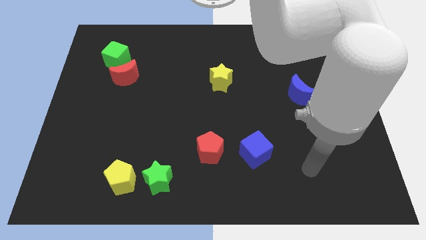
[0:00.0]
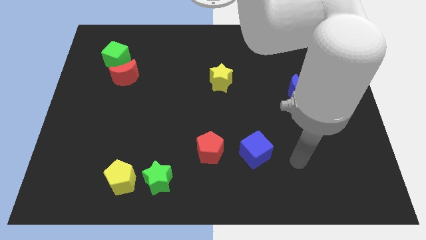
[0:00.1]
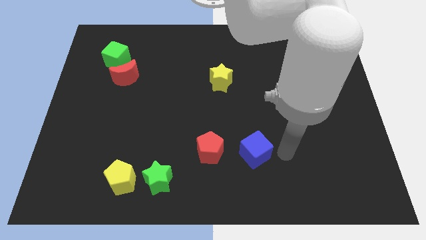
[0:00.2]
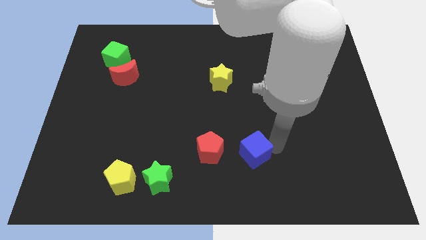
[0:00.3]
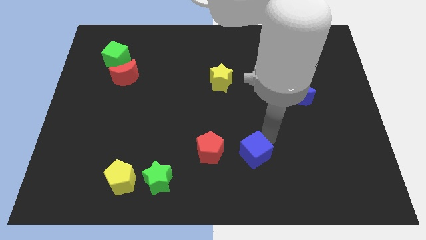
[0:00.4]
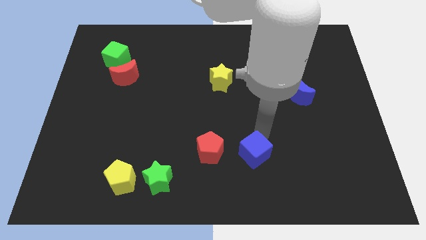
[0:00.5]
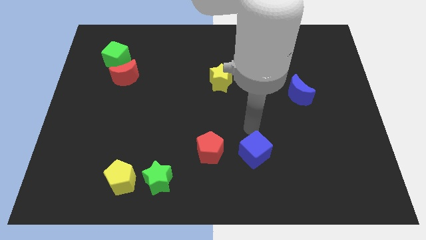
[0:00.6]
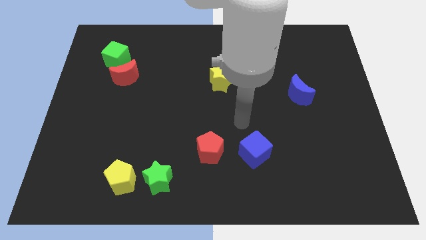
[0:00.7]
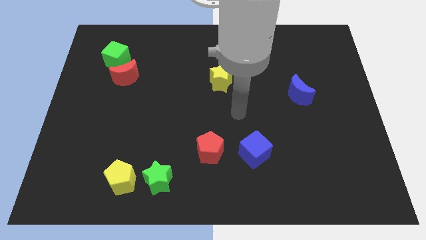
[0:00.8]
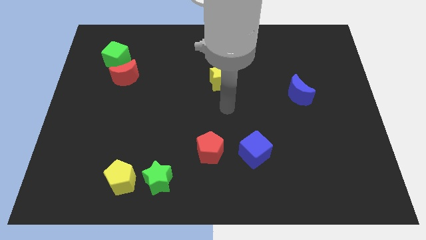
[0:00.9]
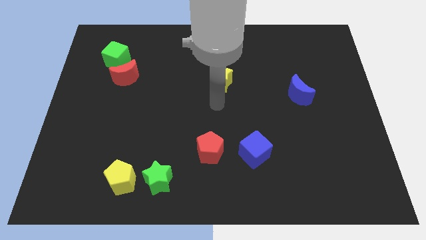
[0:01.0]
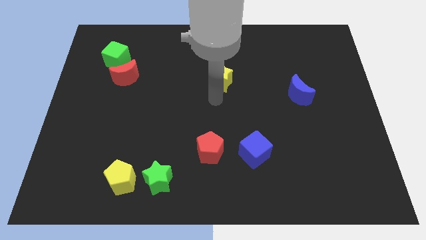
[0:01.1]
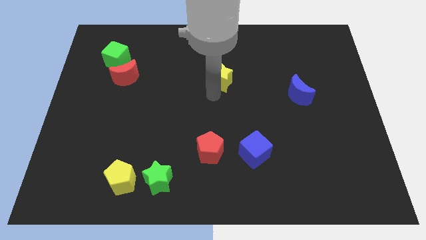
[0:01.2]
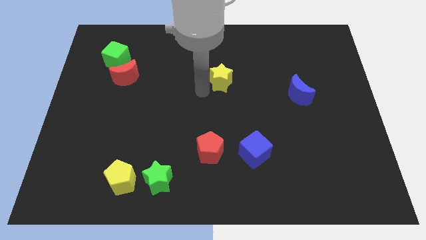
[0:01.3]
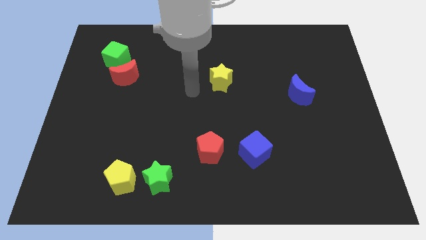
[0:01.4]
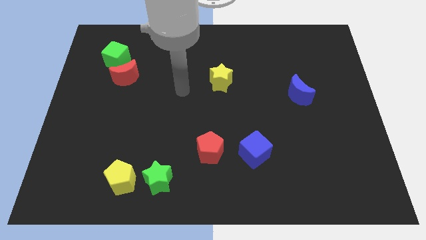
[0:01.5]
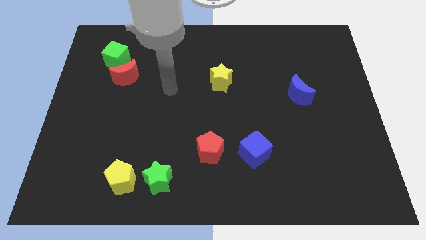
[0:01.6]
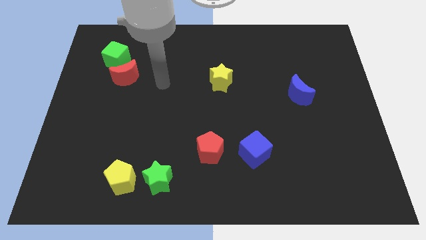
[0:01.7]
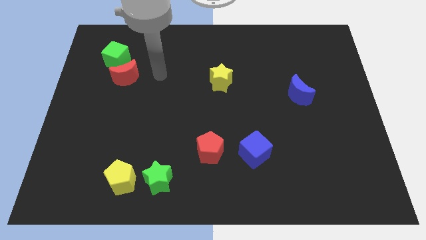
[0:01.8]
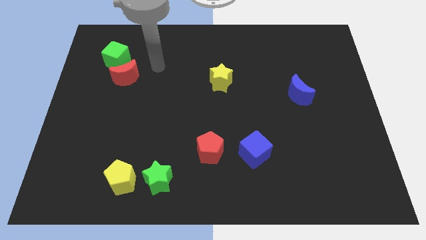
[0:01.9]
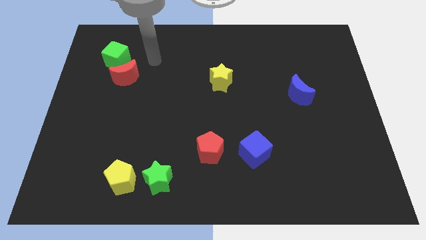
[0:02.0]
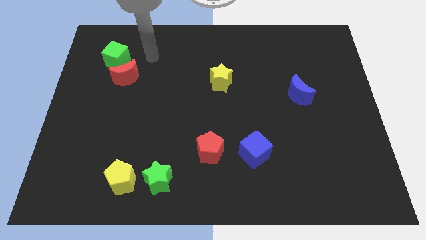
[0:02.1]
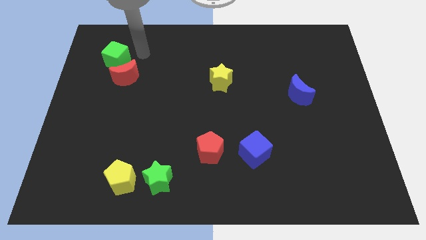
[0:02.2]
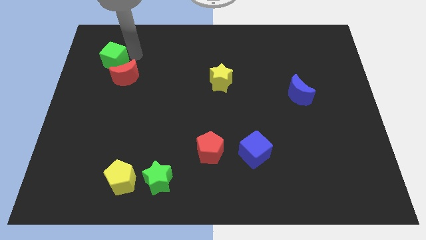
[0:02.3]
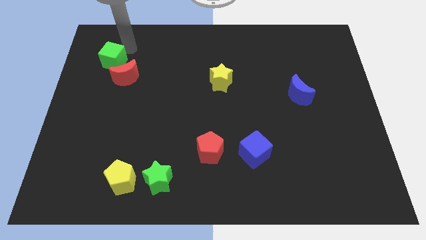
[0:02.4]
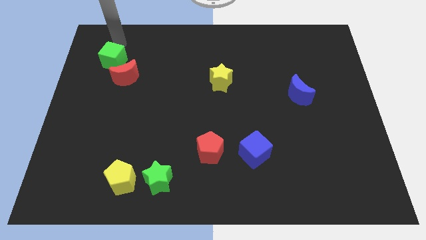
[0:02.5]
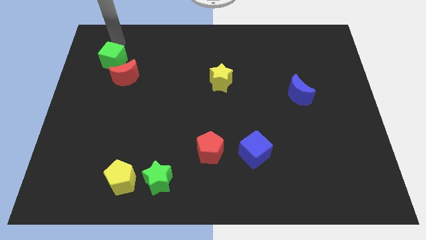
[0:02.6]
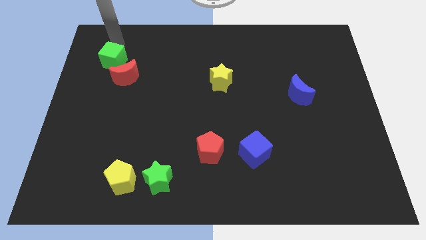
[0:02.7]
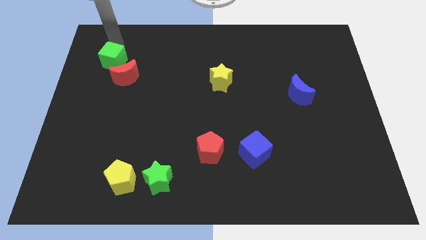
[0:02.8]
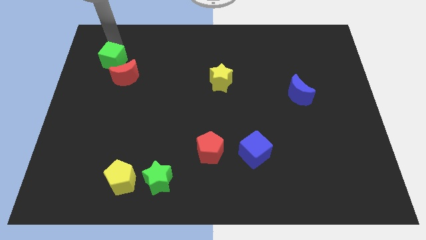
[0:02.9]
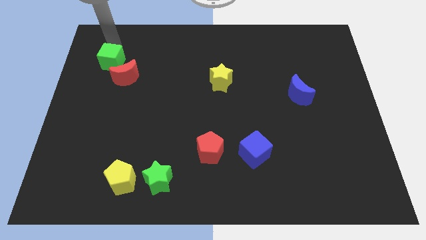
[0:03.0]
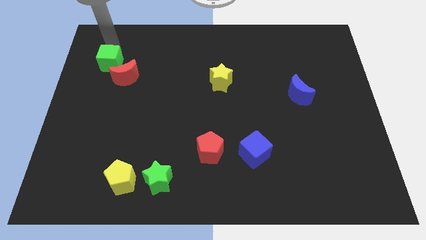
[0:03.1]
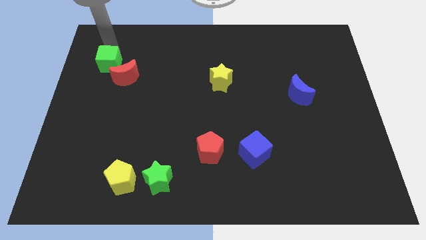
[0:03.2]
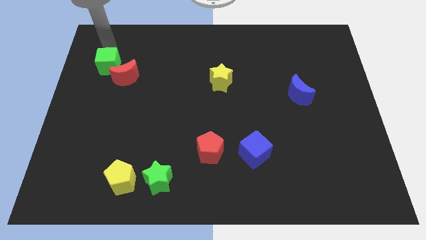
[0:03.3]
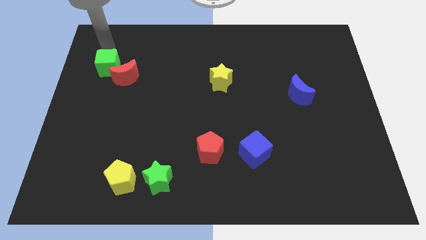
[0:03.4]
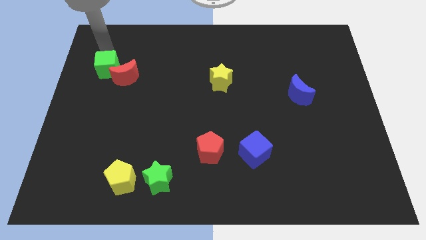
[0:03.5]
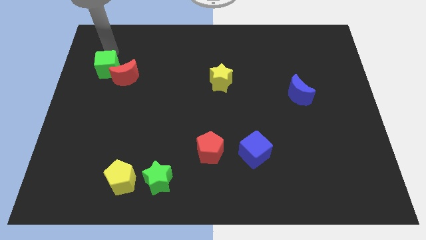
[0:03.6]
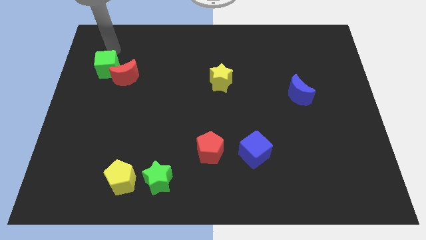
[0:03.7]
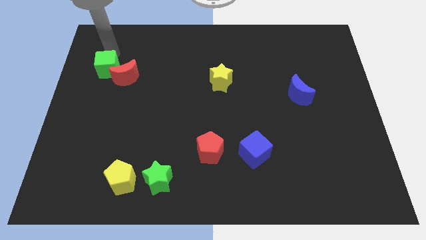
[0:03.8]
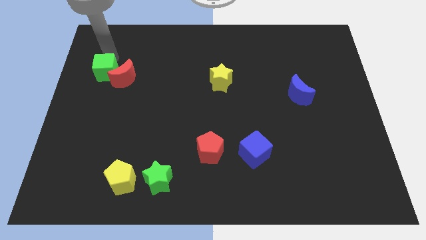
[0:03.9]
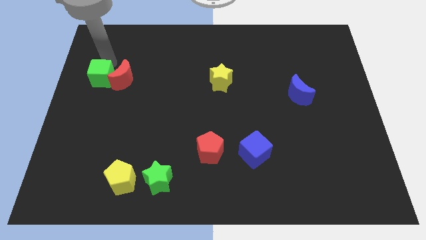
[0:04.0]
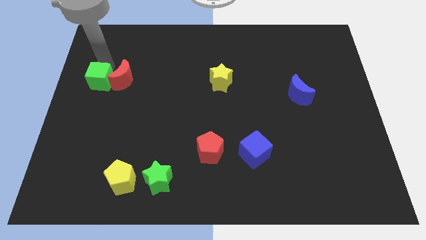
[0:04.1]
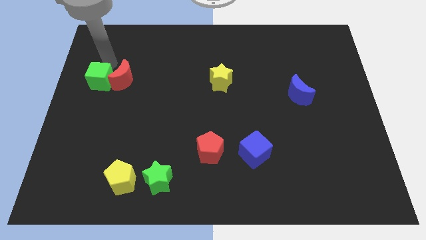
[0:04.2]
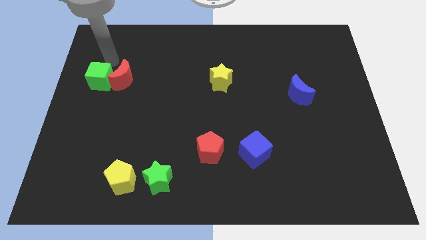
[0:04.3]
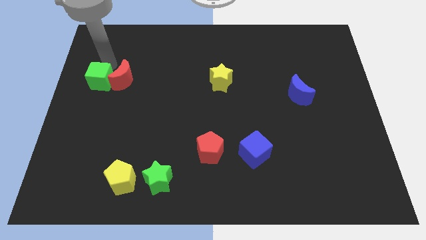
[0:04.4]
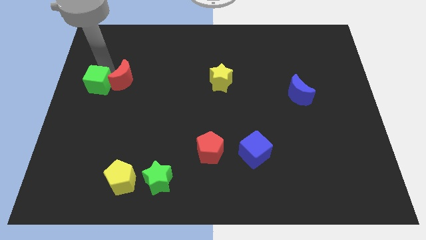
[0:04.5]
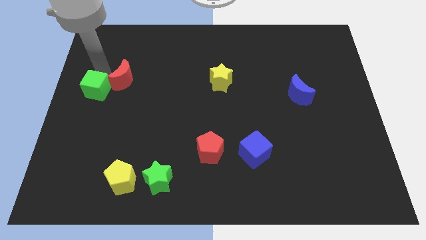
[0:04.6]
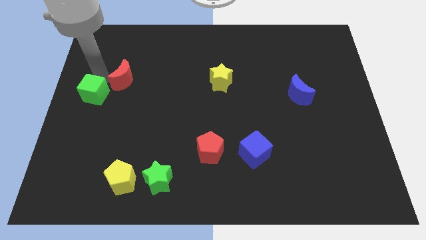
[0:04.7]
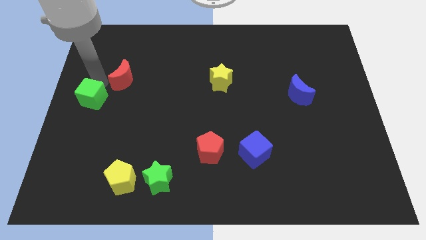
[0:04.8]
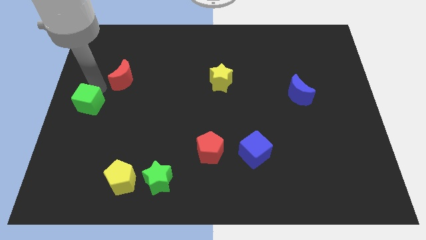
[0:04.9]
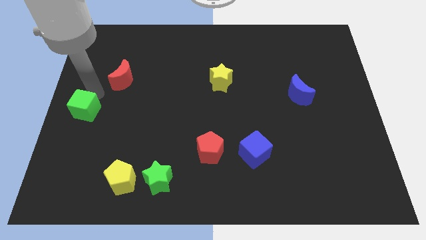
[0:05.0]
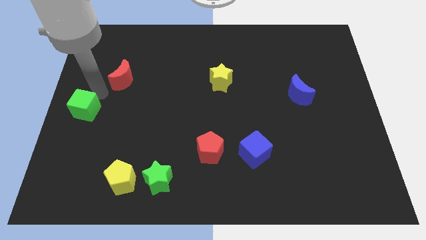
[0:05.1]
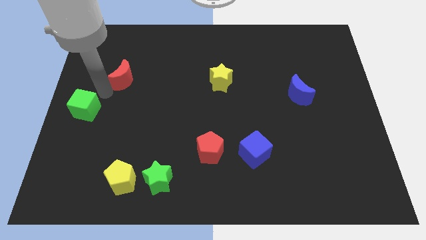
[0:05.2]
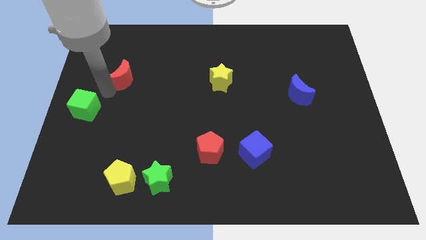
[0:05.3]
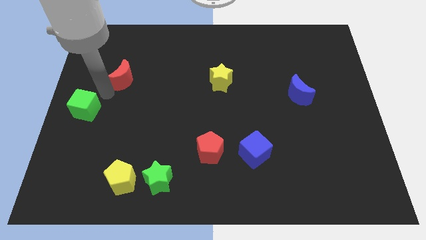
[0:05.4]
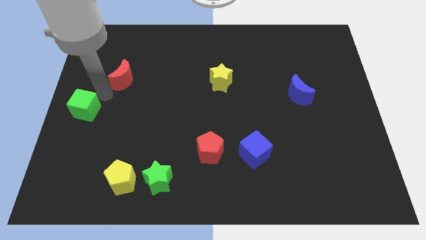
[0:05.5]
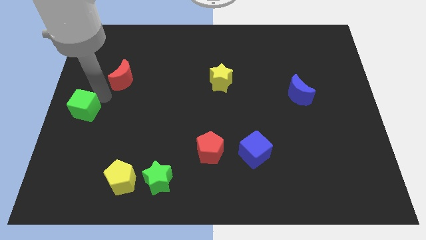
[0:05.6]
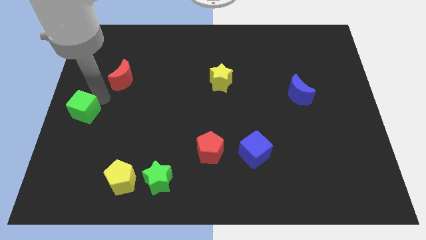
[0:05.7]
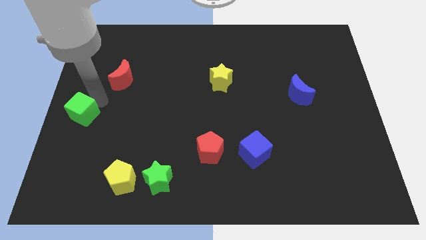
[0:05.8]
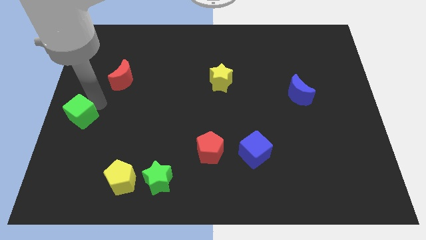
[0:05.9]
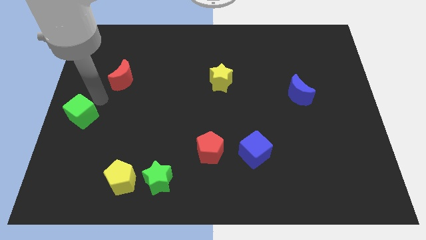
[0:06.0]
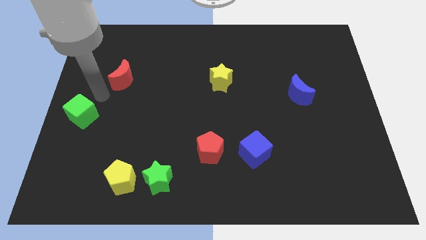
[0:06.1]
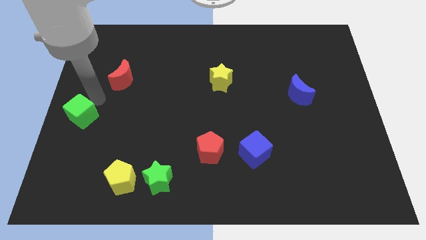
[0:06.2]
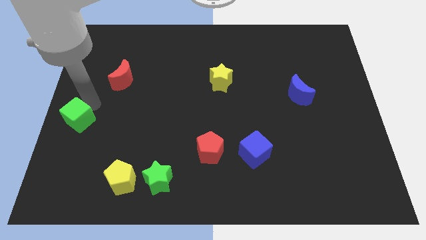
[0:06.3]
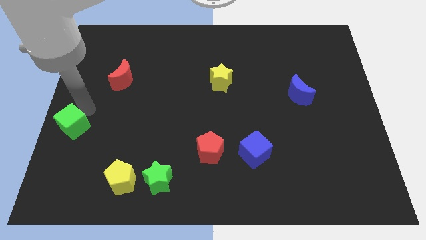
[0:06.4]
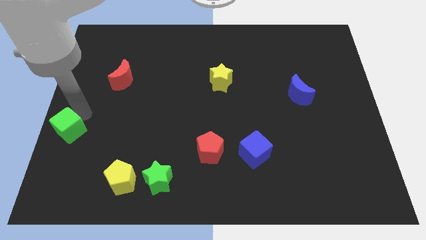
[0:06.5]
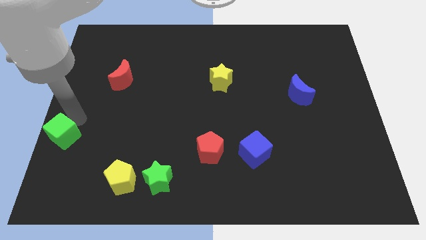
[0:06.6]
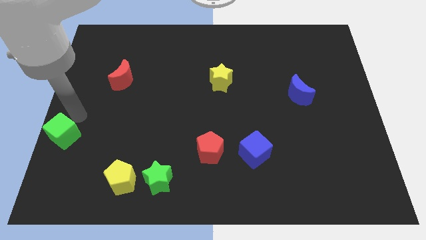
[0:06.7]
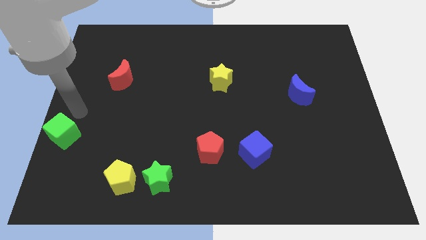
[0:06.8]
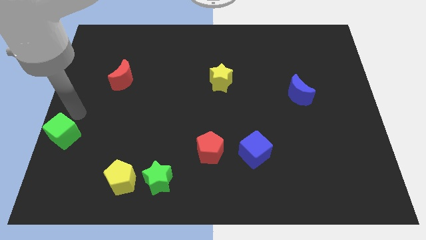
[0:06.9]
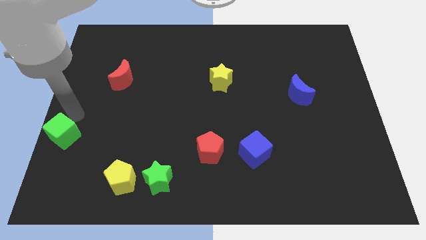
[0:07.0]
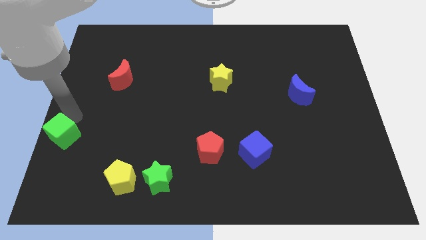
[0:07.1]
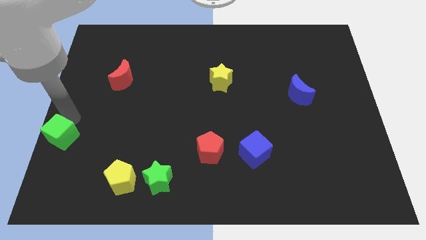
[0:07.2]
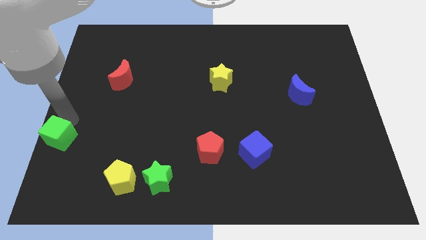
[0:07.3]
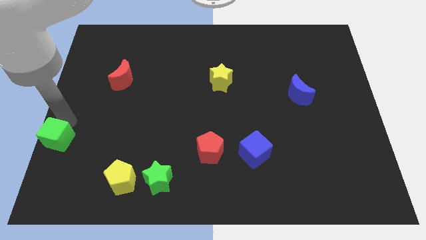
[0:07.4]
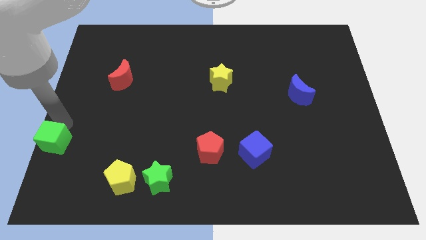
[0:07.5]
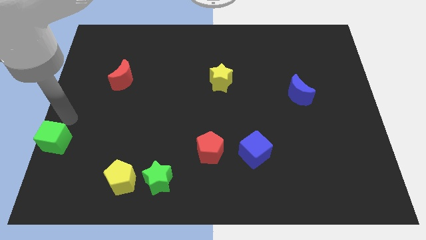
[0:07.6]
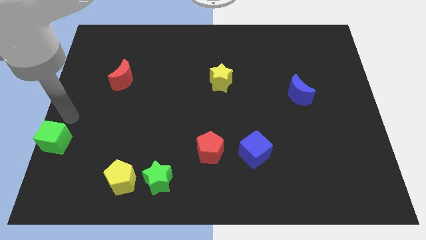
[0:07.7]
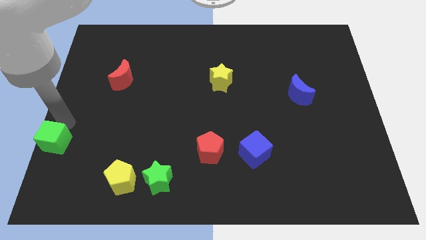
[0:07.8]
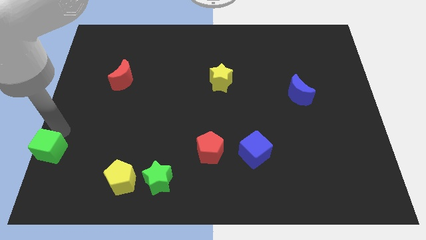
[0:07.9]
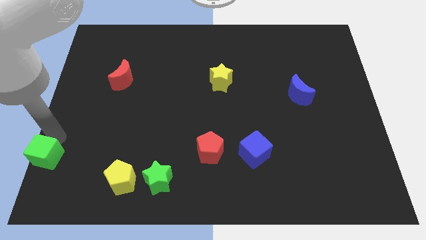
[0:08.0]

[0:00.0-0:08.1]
push the green cube to the lower left corner

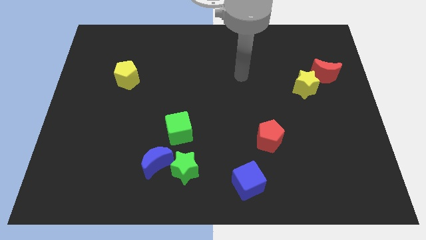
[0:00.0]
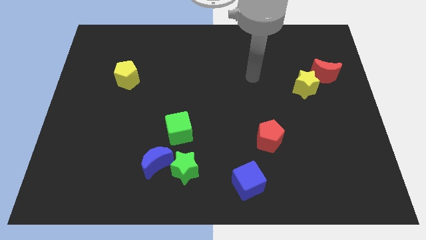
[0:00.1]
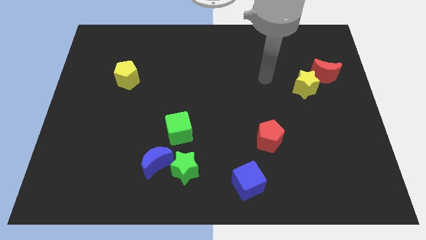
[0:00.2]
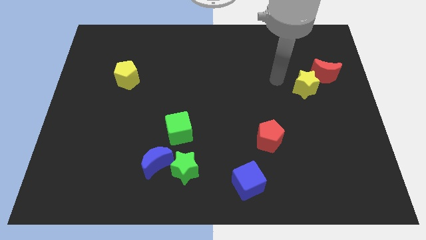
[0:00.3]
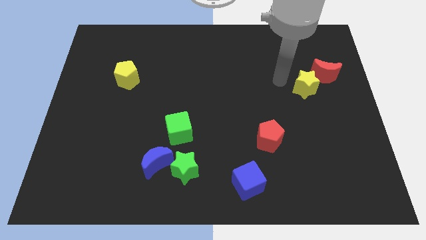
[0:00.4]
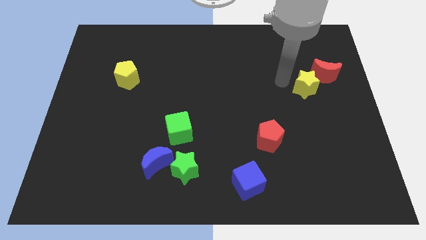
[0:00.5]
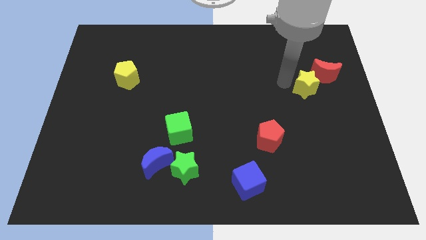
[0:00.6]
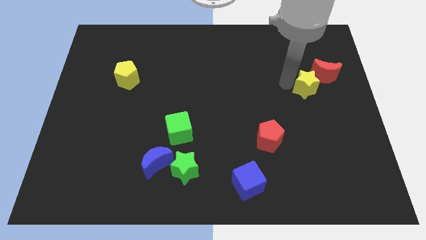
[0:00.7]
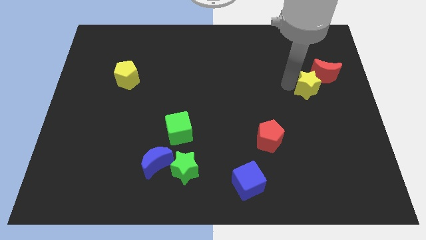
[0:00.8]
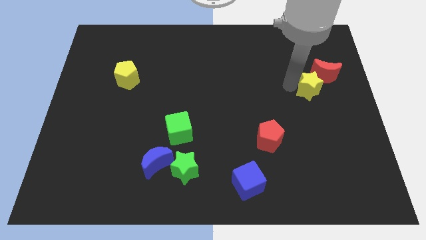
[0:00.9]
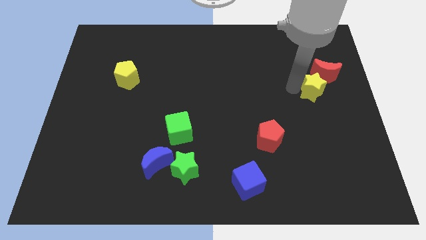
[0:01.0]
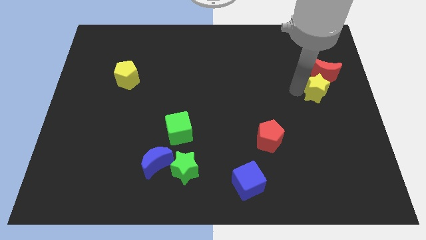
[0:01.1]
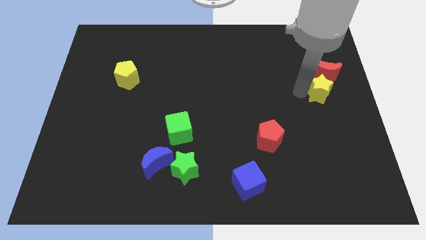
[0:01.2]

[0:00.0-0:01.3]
push the yellow star to the right side
